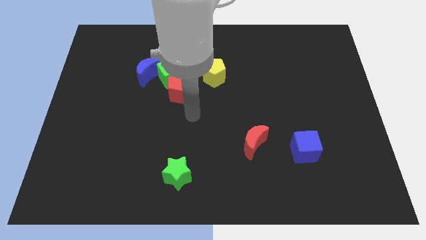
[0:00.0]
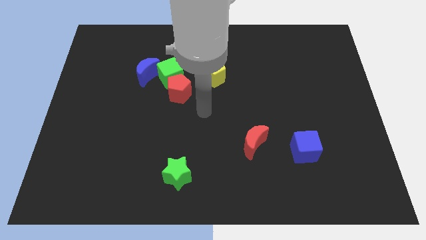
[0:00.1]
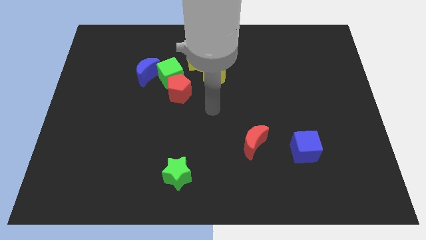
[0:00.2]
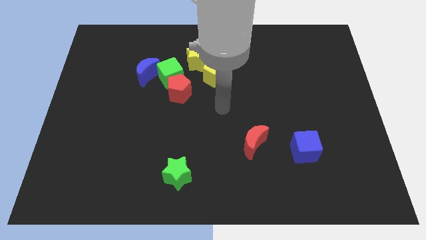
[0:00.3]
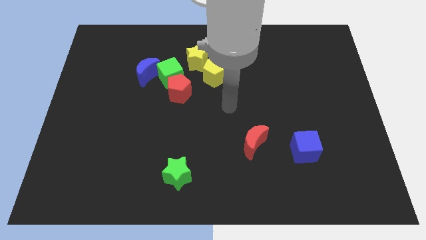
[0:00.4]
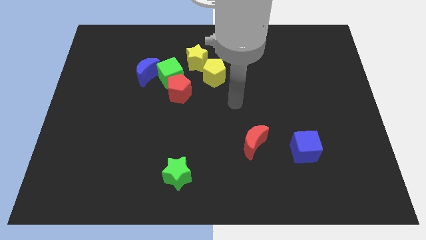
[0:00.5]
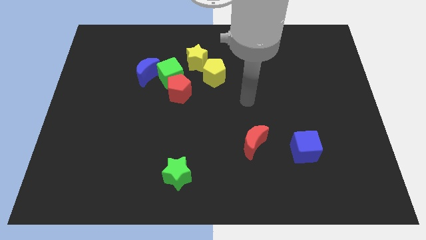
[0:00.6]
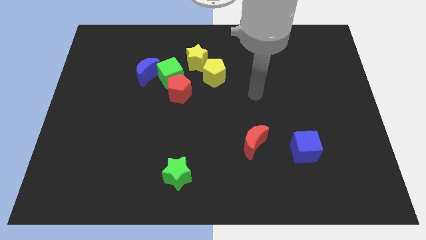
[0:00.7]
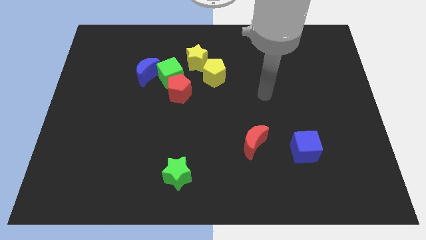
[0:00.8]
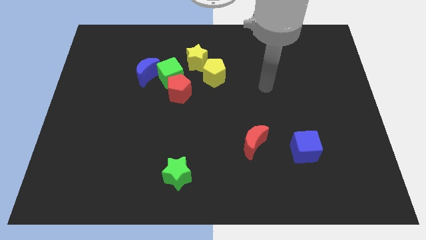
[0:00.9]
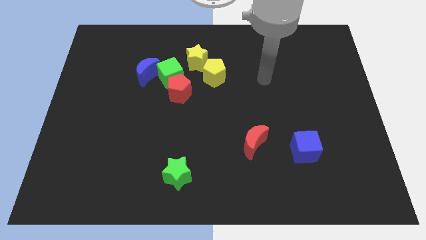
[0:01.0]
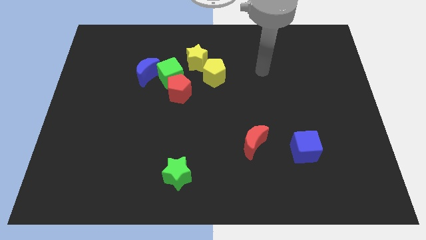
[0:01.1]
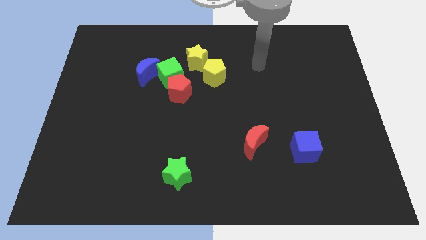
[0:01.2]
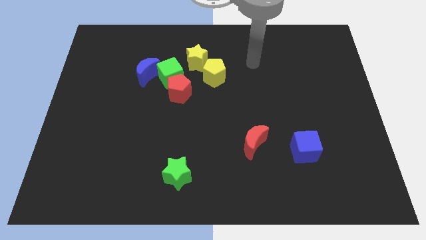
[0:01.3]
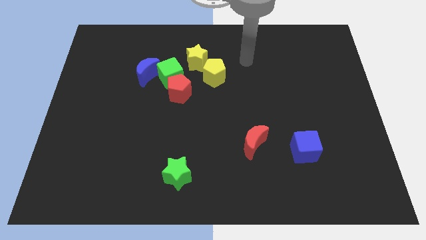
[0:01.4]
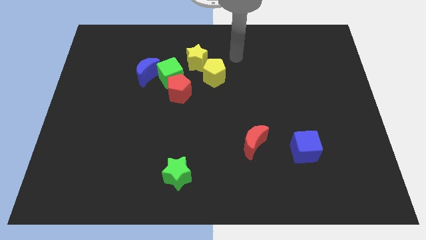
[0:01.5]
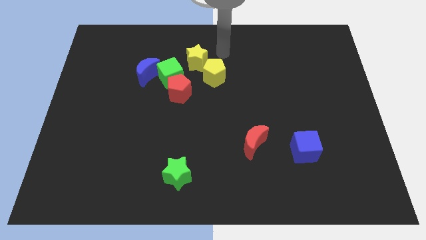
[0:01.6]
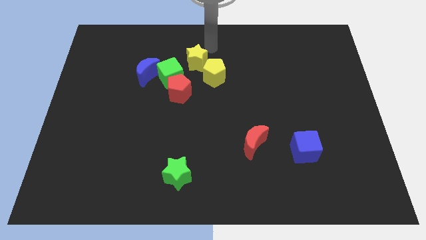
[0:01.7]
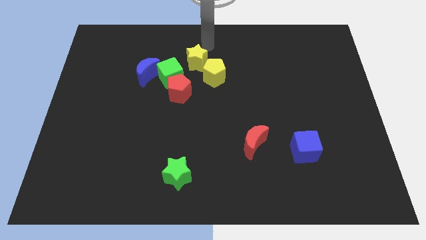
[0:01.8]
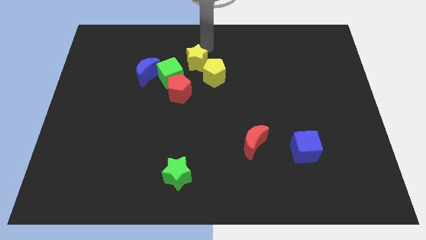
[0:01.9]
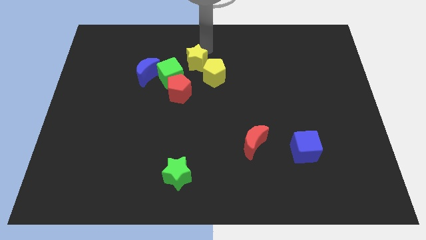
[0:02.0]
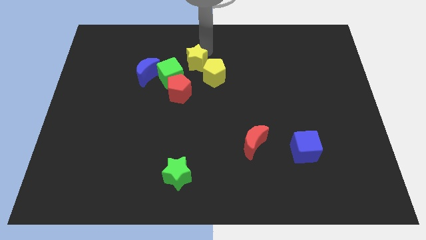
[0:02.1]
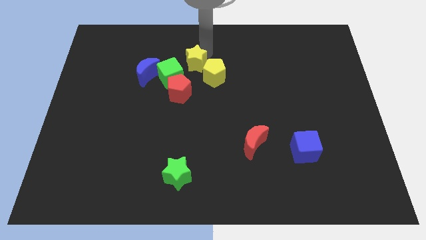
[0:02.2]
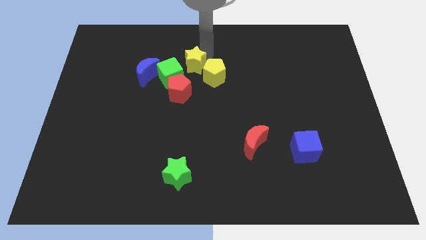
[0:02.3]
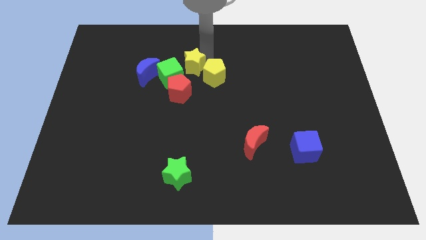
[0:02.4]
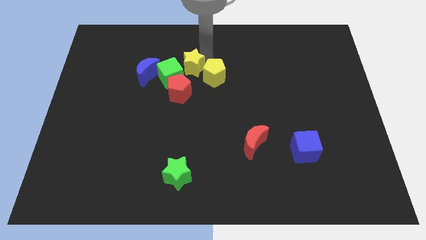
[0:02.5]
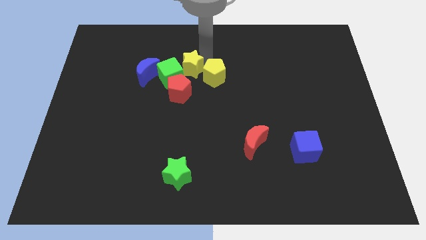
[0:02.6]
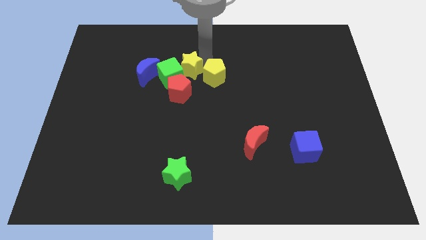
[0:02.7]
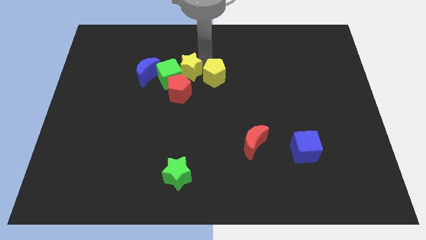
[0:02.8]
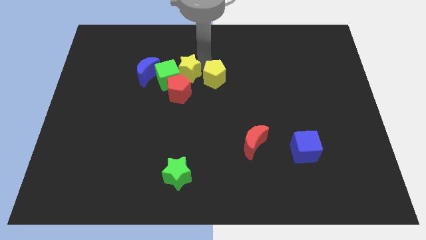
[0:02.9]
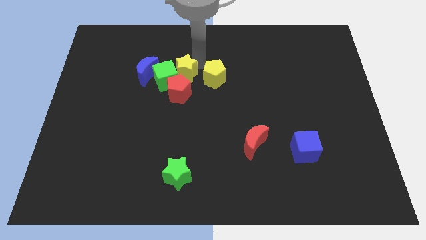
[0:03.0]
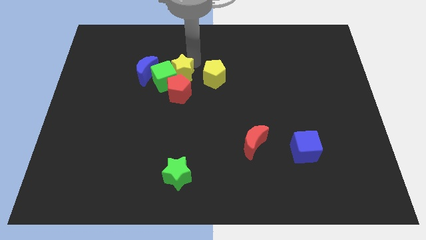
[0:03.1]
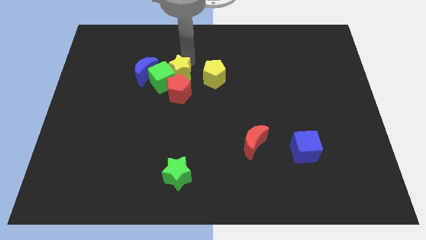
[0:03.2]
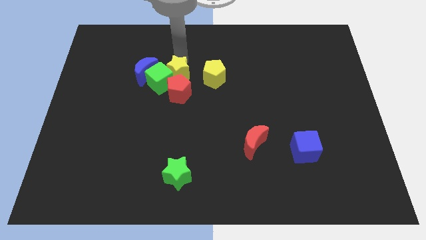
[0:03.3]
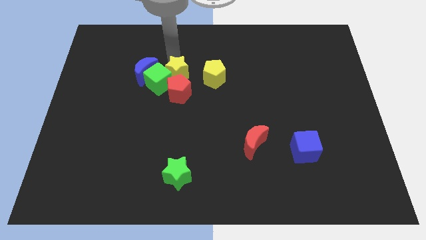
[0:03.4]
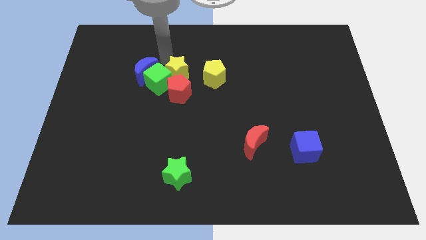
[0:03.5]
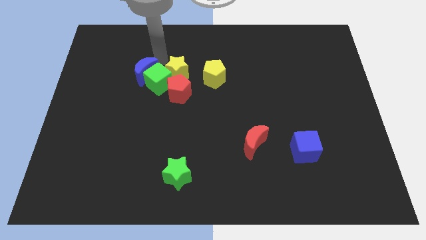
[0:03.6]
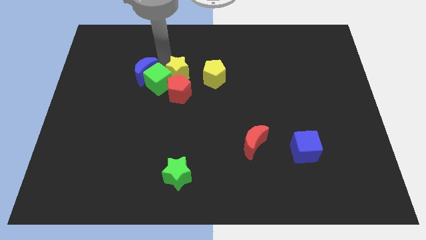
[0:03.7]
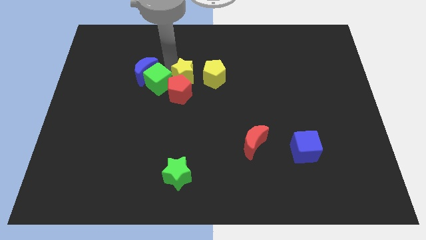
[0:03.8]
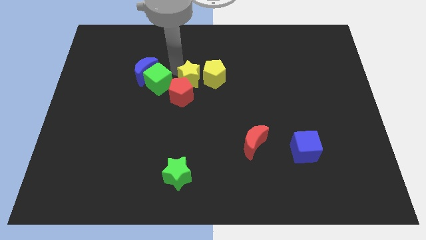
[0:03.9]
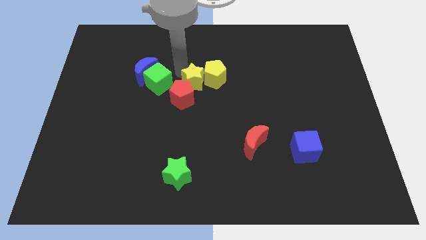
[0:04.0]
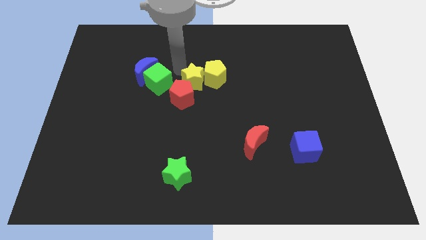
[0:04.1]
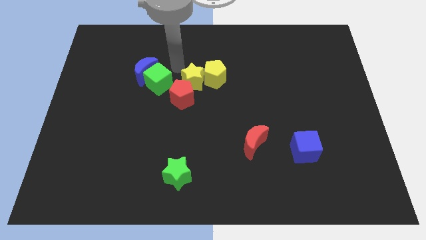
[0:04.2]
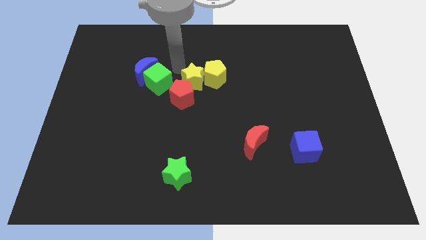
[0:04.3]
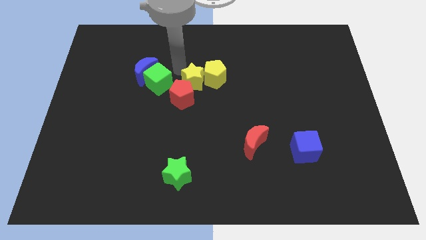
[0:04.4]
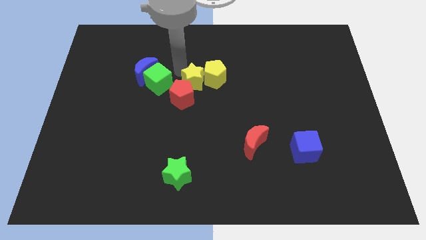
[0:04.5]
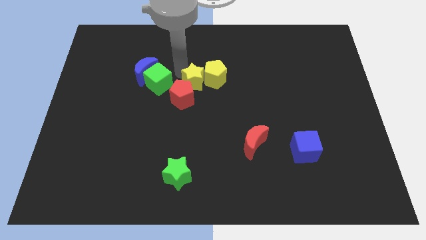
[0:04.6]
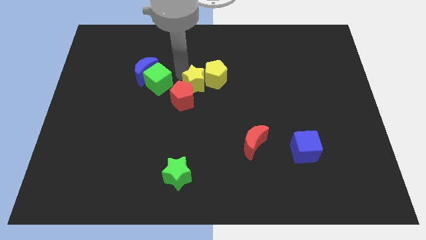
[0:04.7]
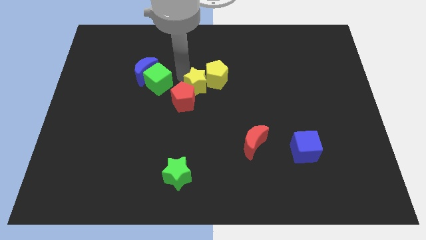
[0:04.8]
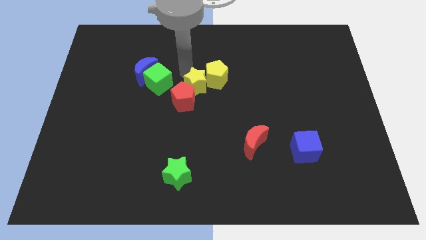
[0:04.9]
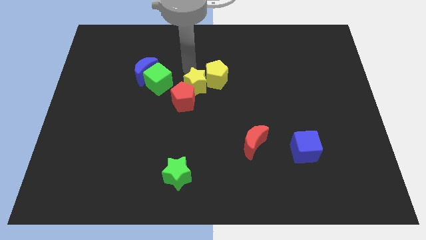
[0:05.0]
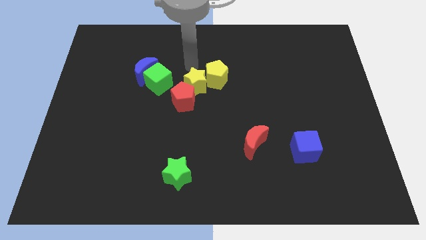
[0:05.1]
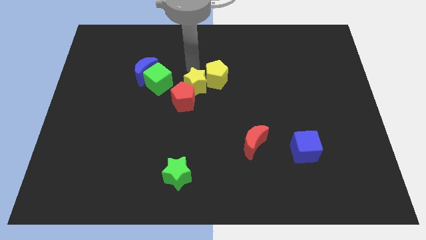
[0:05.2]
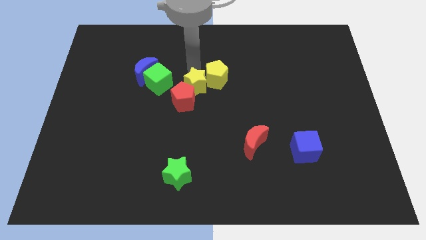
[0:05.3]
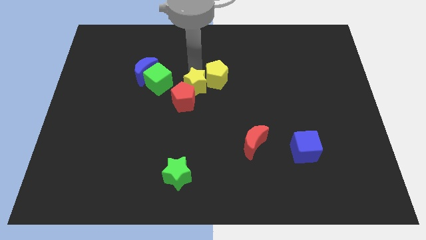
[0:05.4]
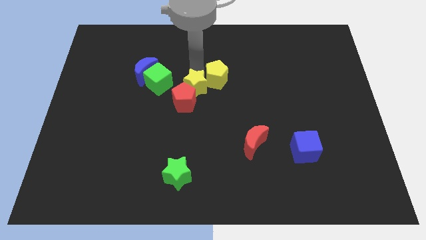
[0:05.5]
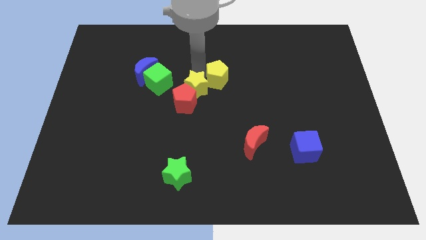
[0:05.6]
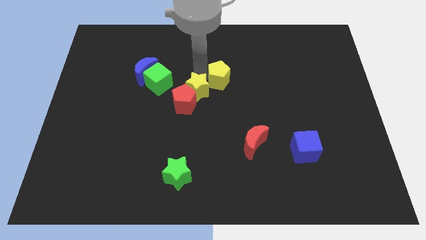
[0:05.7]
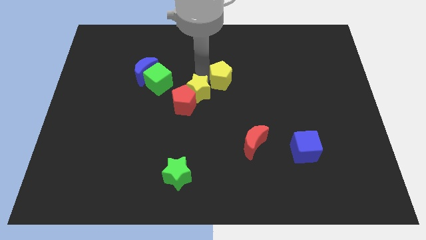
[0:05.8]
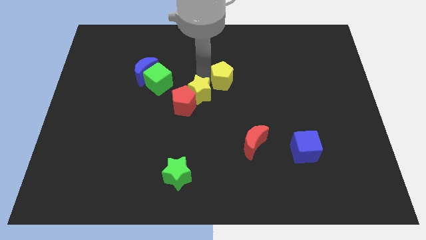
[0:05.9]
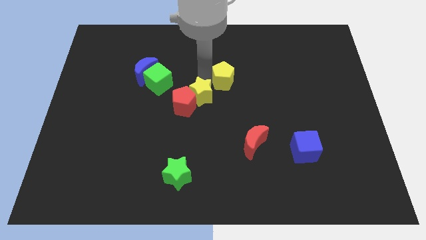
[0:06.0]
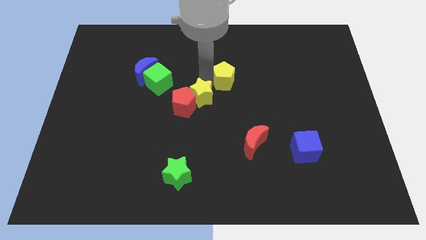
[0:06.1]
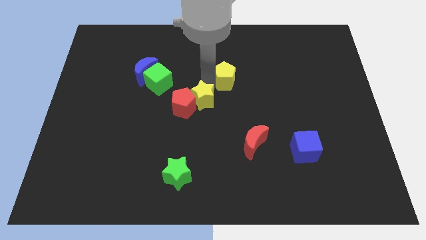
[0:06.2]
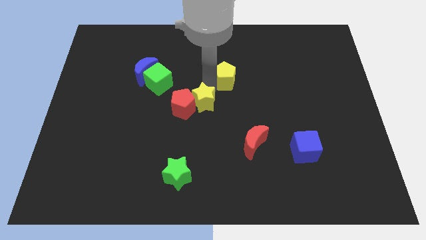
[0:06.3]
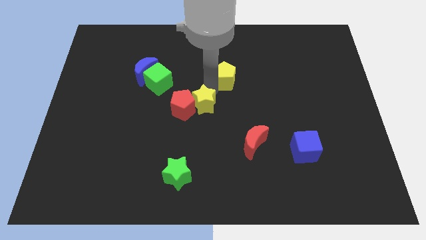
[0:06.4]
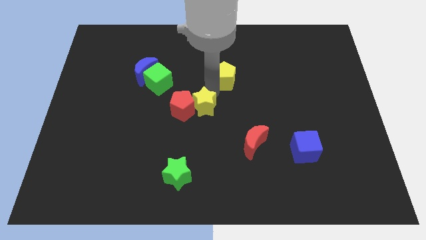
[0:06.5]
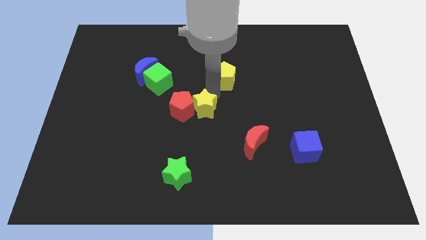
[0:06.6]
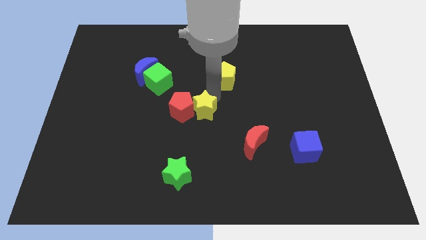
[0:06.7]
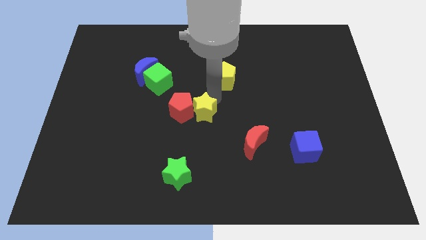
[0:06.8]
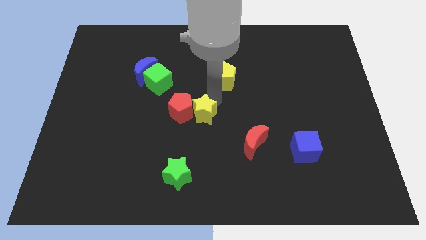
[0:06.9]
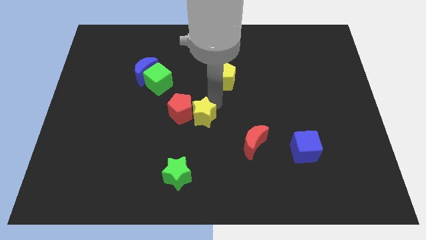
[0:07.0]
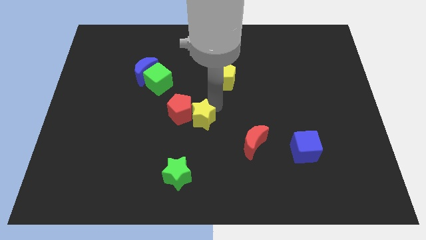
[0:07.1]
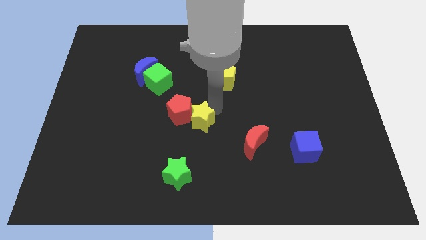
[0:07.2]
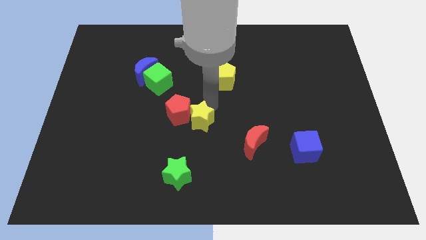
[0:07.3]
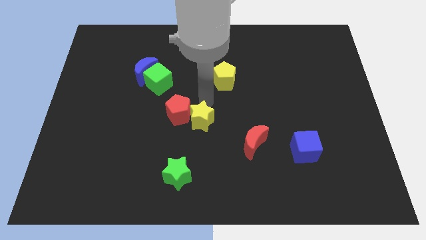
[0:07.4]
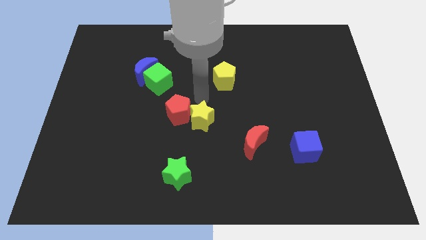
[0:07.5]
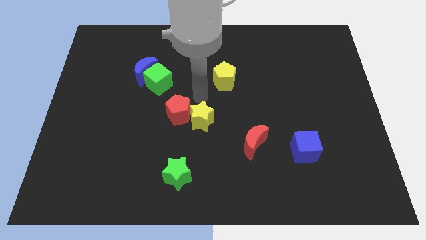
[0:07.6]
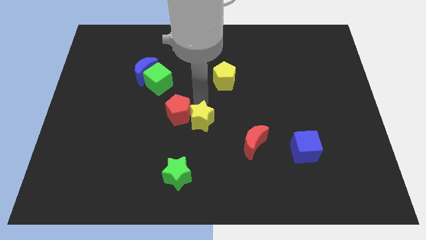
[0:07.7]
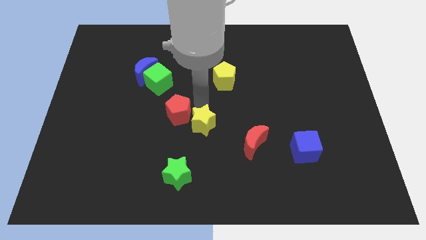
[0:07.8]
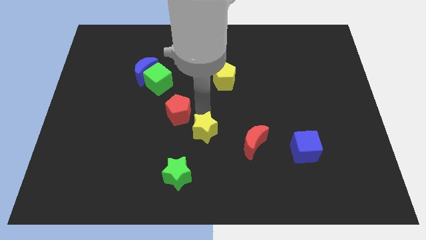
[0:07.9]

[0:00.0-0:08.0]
push the yellow star to the left side of the red moon
